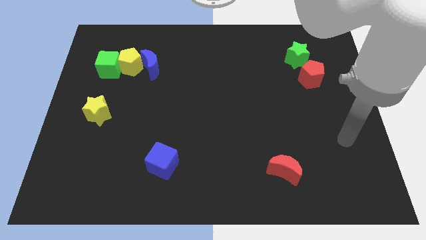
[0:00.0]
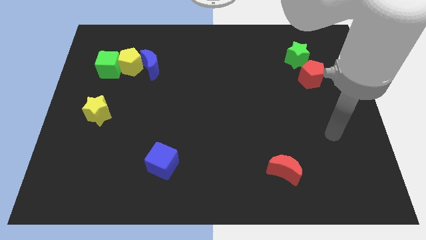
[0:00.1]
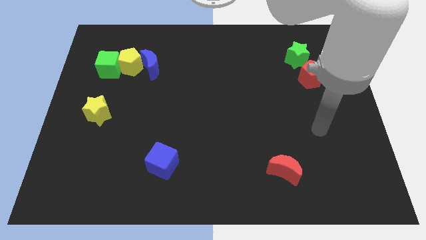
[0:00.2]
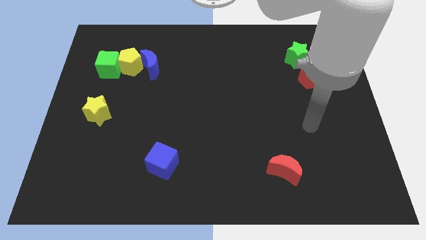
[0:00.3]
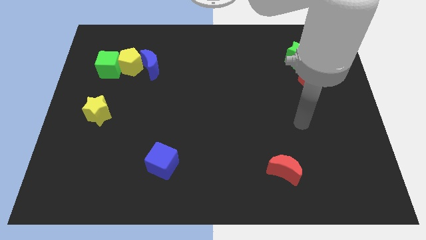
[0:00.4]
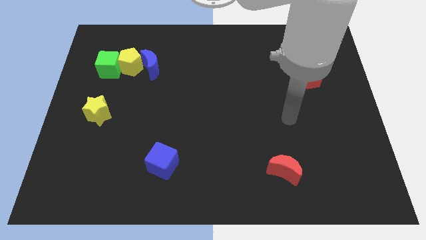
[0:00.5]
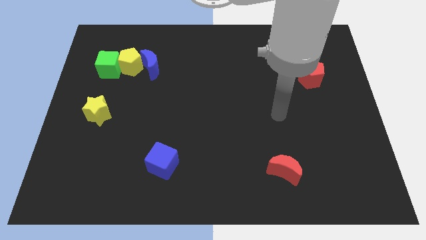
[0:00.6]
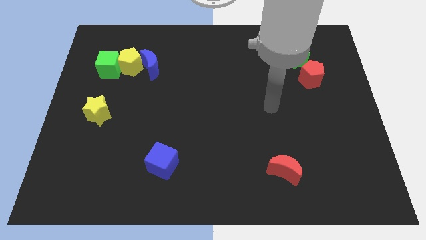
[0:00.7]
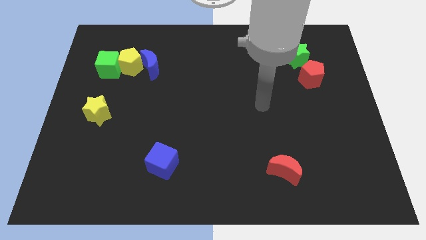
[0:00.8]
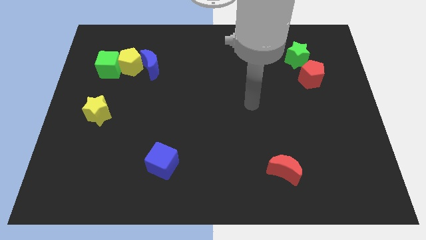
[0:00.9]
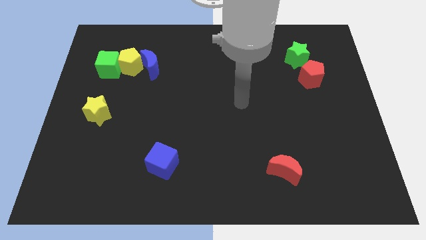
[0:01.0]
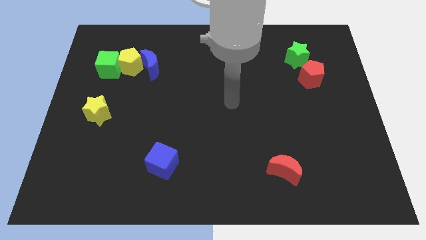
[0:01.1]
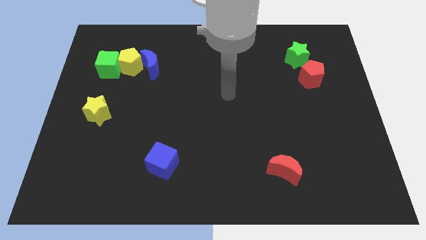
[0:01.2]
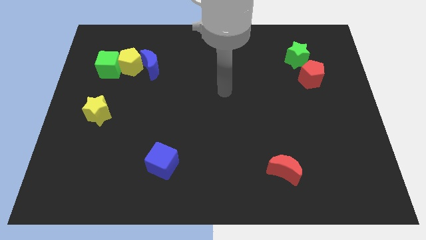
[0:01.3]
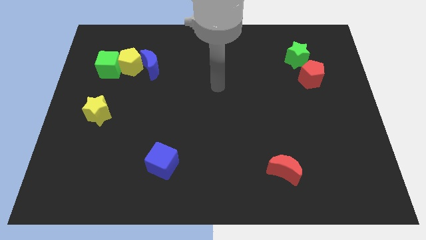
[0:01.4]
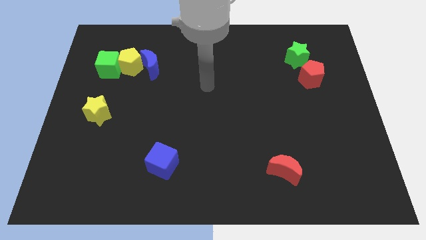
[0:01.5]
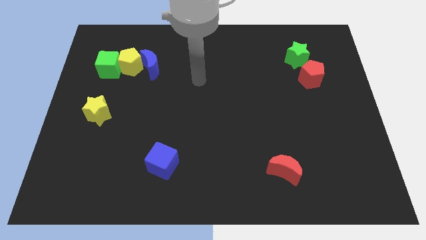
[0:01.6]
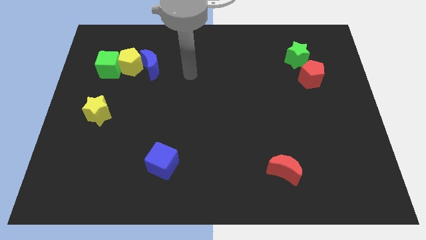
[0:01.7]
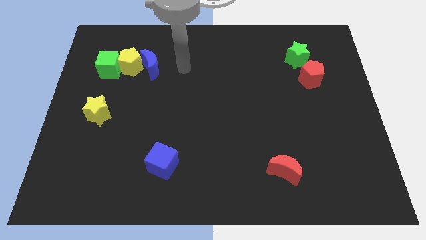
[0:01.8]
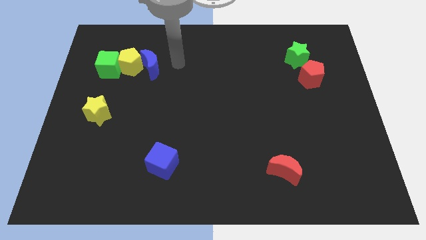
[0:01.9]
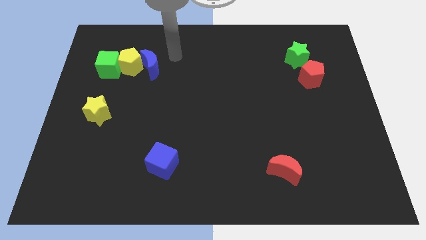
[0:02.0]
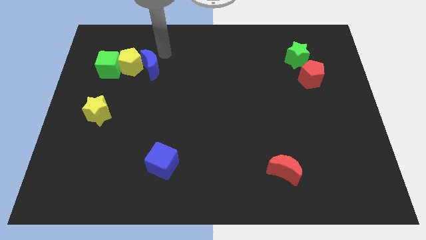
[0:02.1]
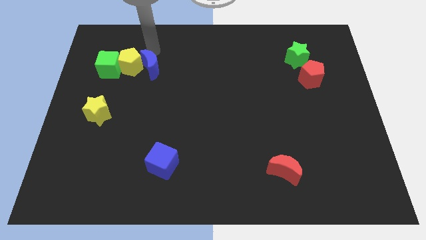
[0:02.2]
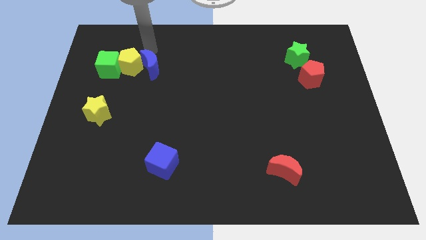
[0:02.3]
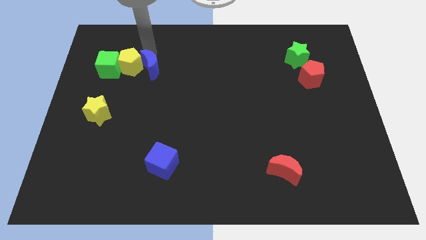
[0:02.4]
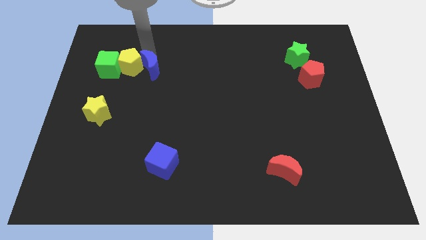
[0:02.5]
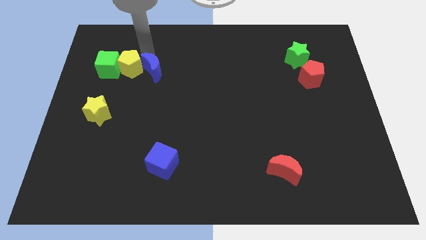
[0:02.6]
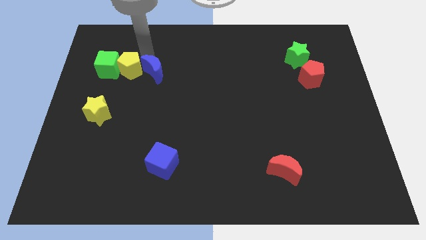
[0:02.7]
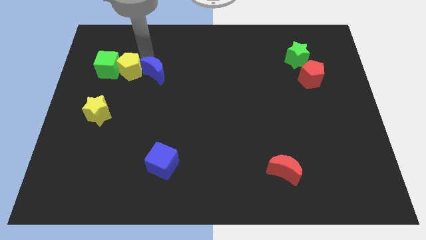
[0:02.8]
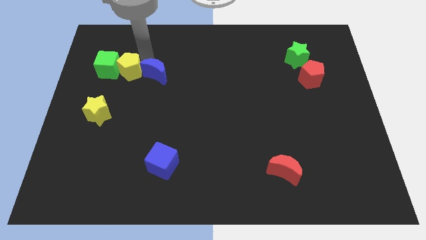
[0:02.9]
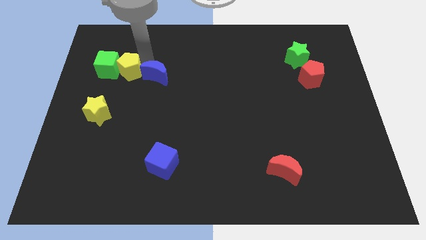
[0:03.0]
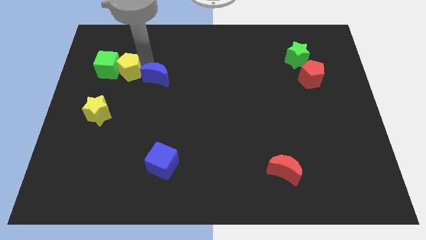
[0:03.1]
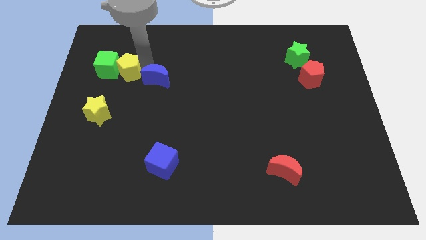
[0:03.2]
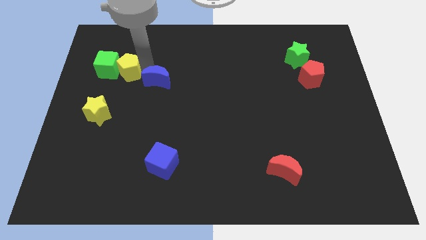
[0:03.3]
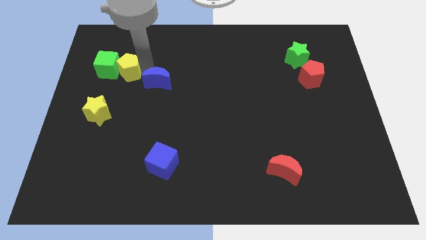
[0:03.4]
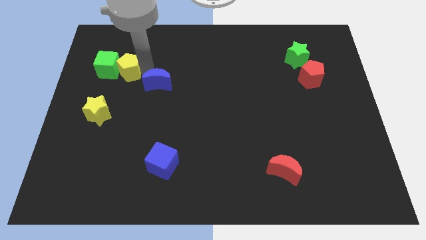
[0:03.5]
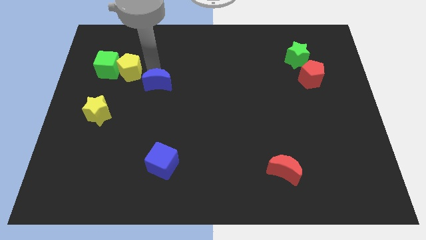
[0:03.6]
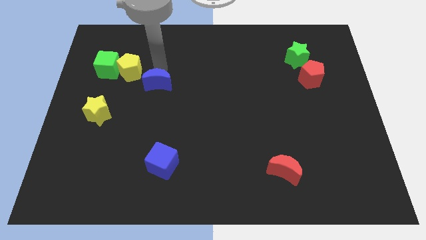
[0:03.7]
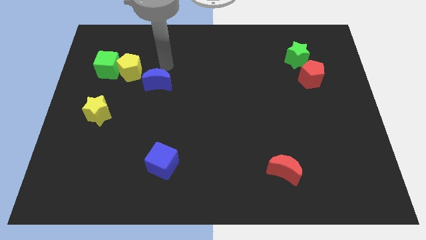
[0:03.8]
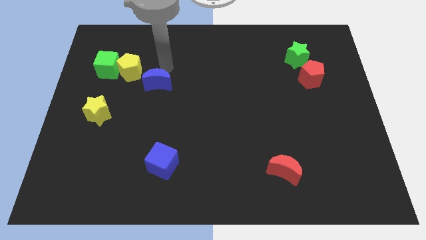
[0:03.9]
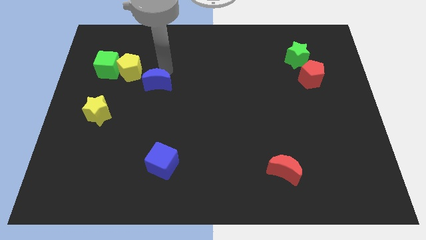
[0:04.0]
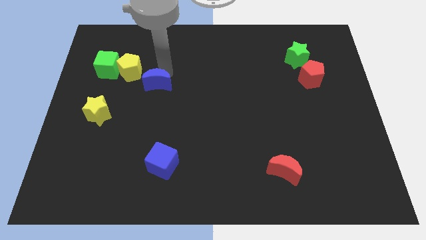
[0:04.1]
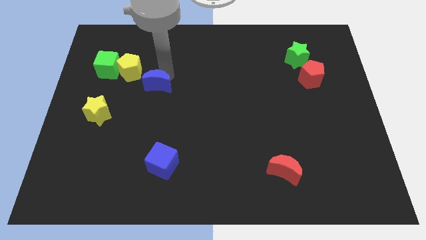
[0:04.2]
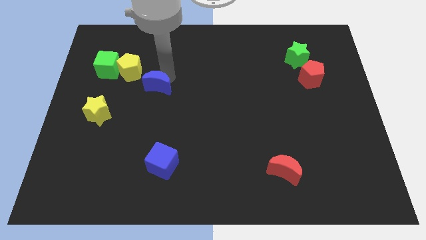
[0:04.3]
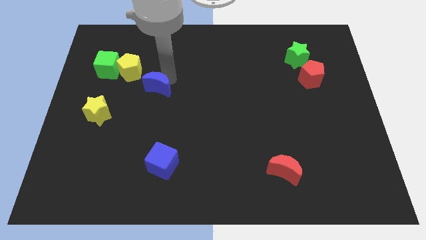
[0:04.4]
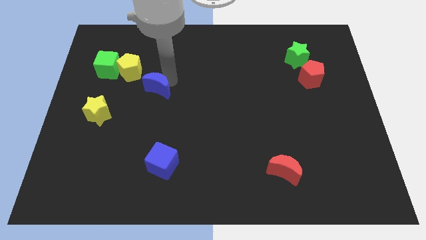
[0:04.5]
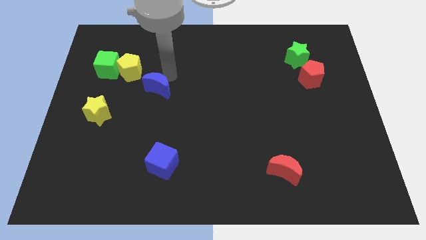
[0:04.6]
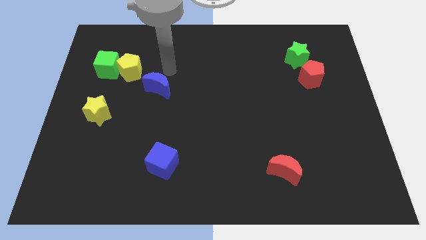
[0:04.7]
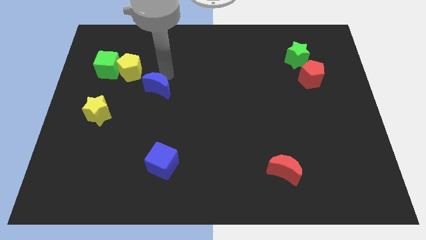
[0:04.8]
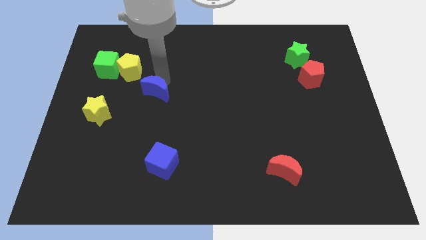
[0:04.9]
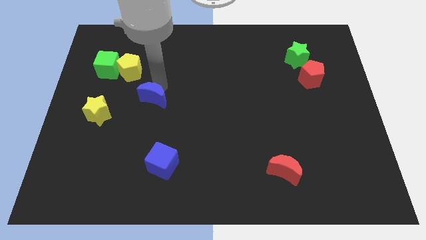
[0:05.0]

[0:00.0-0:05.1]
push the blue moon right of the yellow star

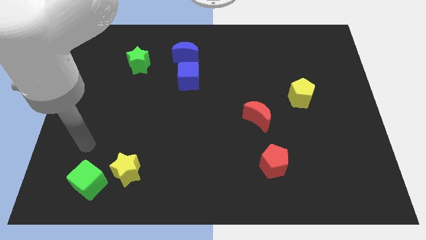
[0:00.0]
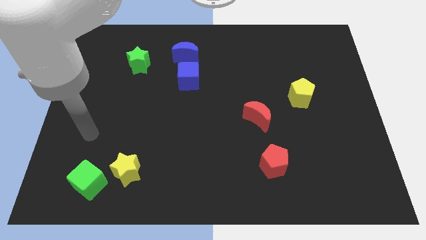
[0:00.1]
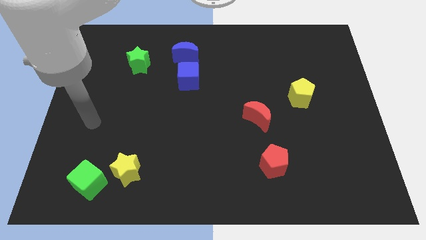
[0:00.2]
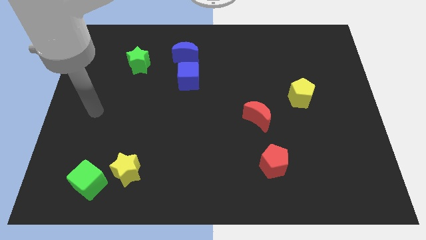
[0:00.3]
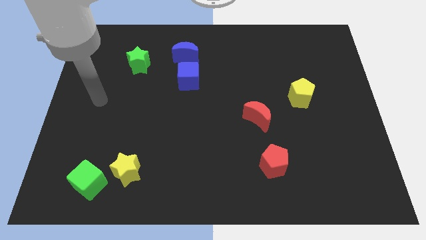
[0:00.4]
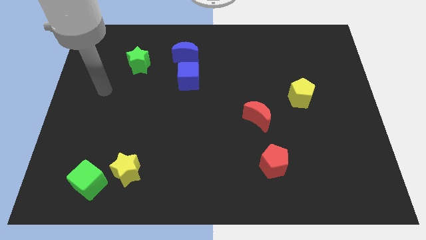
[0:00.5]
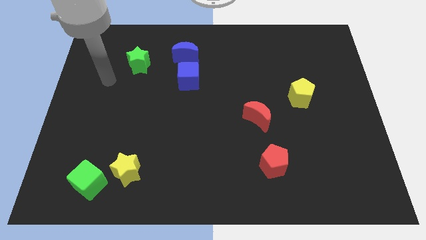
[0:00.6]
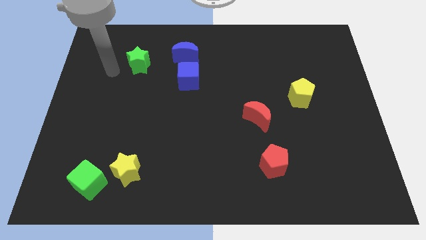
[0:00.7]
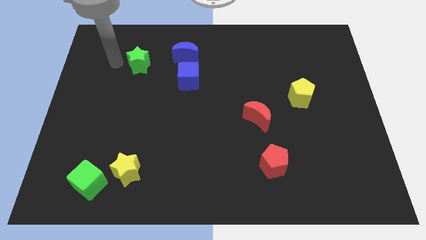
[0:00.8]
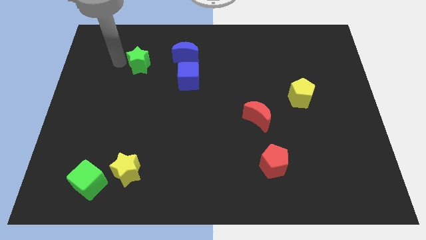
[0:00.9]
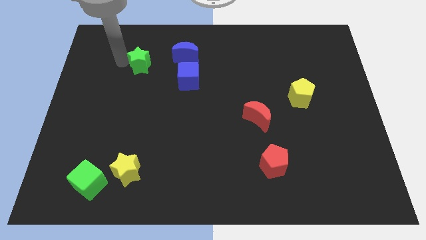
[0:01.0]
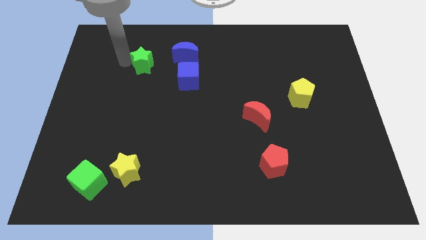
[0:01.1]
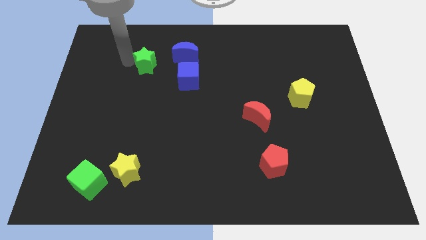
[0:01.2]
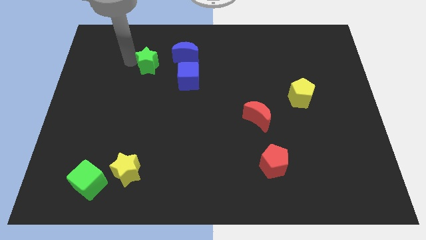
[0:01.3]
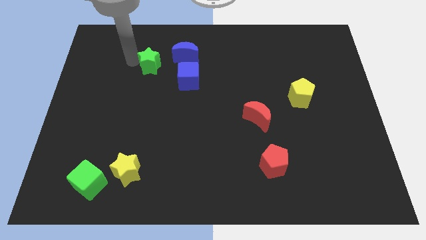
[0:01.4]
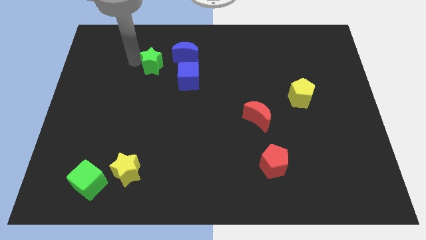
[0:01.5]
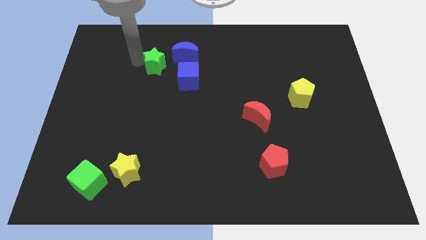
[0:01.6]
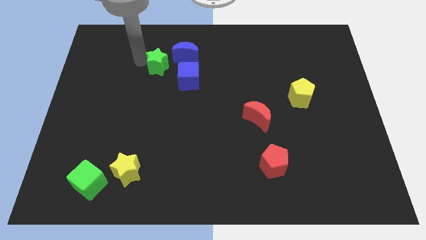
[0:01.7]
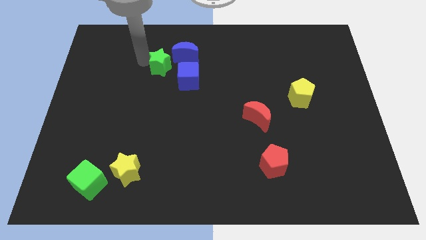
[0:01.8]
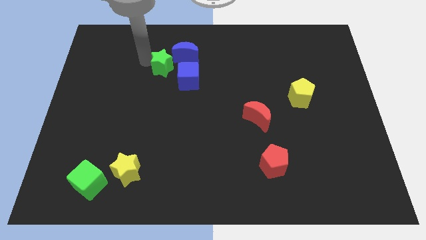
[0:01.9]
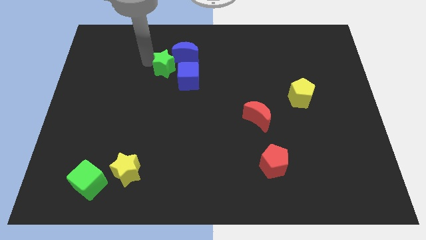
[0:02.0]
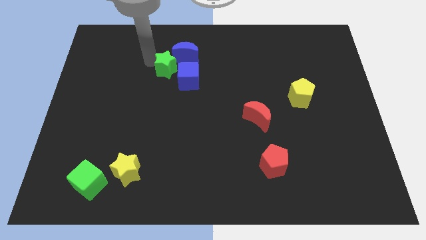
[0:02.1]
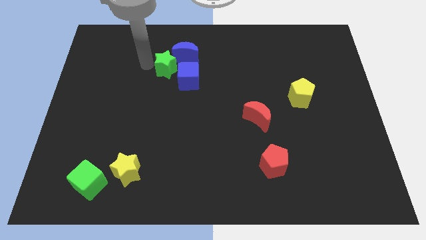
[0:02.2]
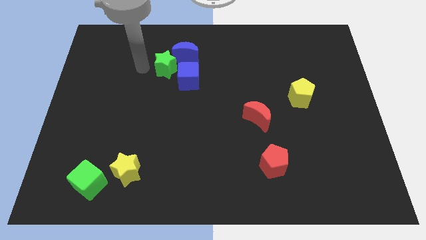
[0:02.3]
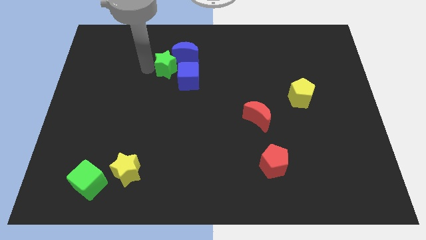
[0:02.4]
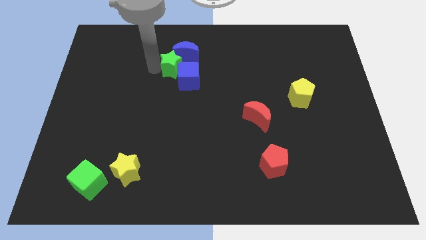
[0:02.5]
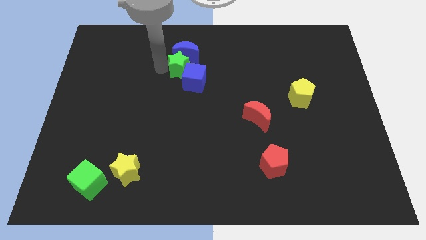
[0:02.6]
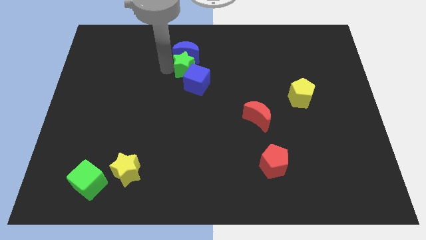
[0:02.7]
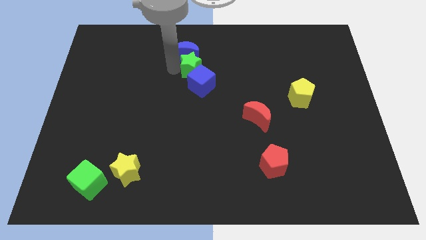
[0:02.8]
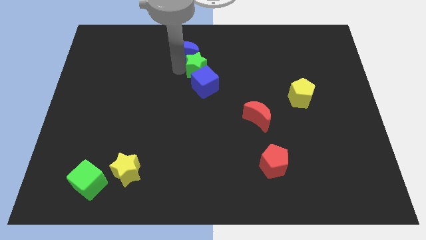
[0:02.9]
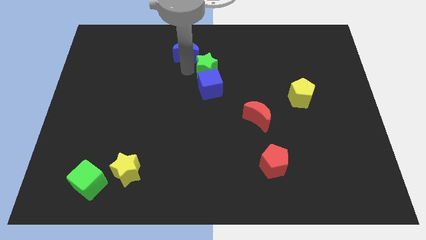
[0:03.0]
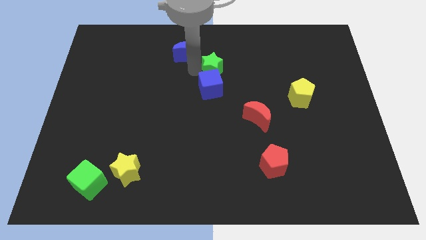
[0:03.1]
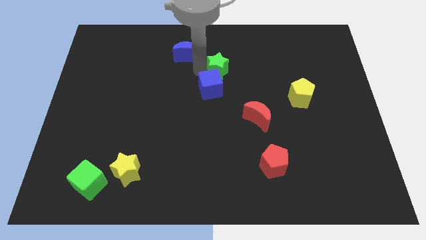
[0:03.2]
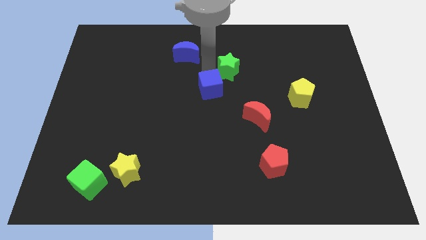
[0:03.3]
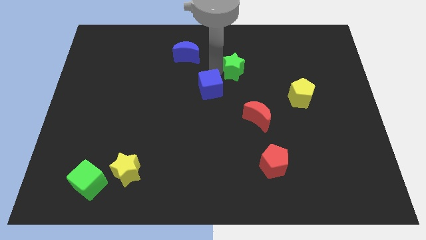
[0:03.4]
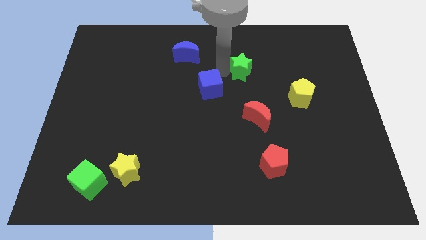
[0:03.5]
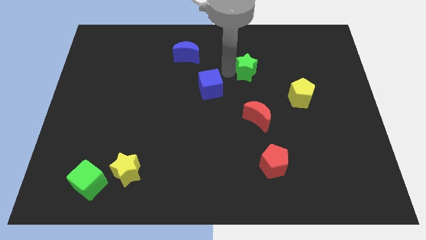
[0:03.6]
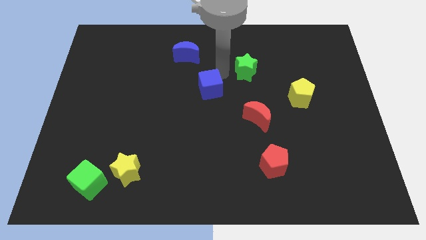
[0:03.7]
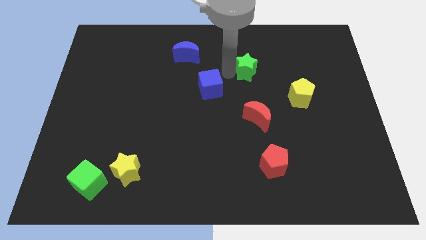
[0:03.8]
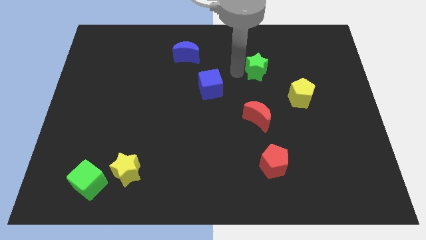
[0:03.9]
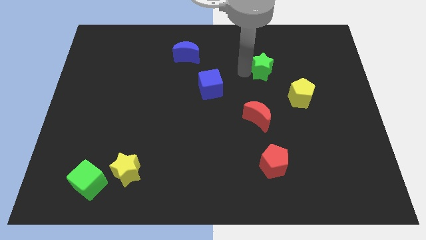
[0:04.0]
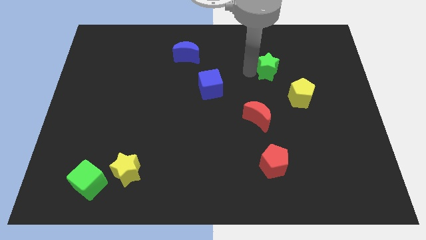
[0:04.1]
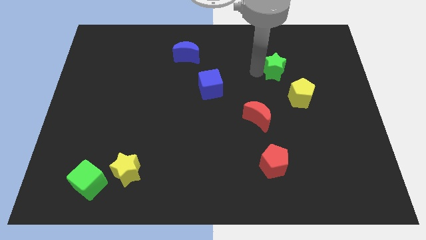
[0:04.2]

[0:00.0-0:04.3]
slide the green star to the top side of the yellow pentagon
